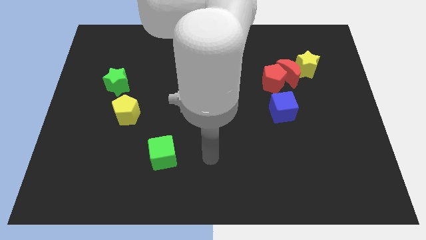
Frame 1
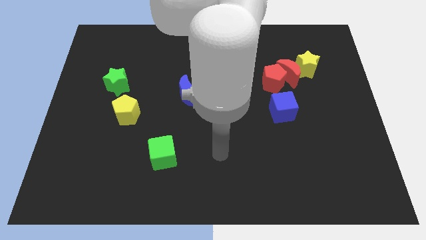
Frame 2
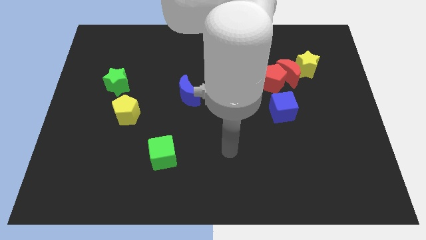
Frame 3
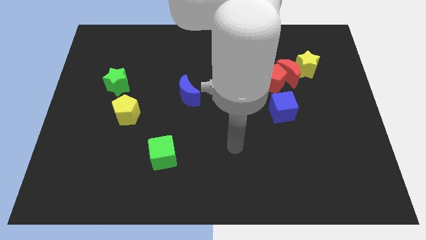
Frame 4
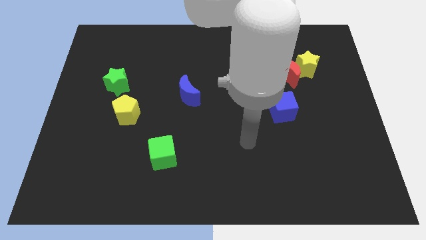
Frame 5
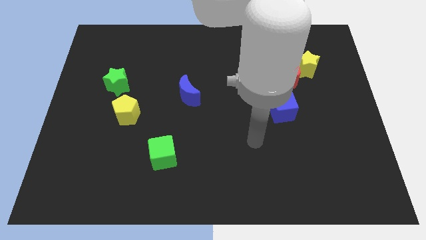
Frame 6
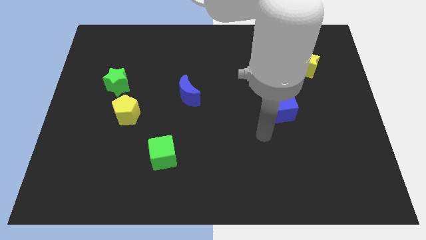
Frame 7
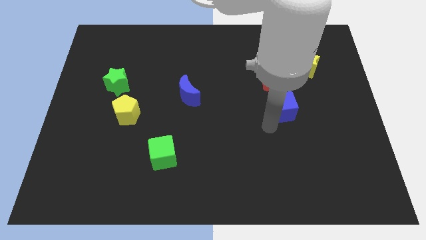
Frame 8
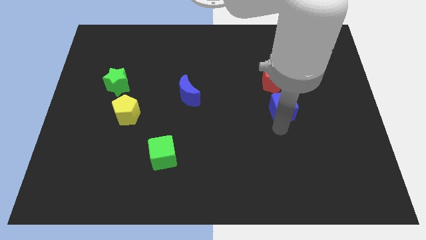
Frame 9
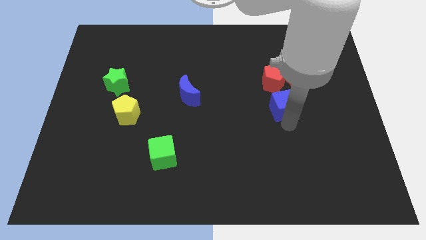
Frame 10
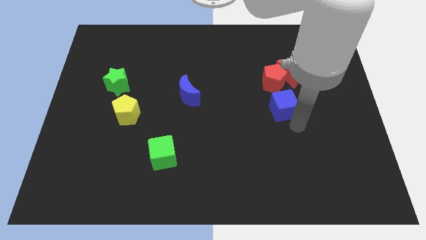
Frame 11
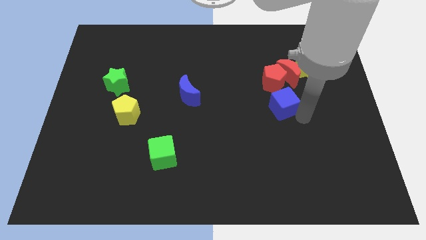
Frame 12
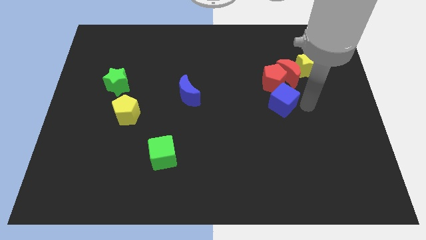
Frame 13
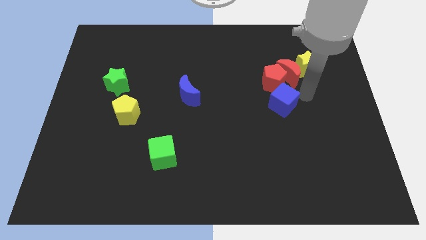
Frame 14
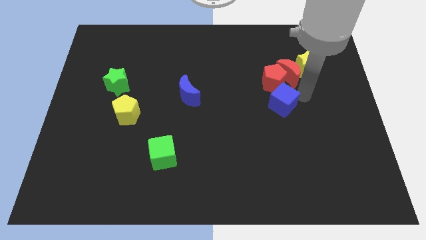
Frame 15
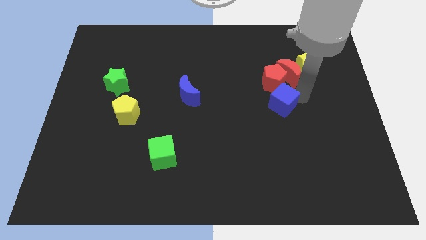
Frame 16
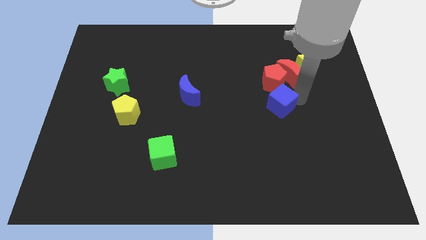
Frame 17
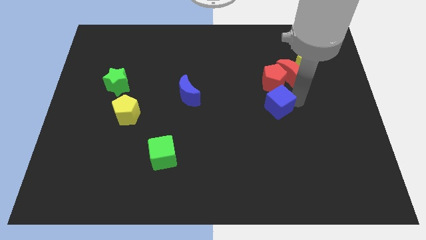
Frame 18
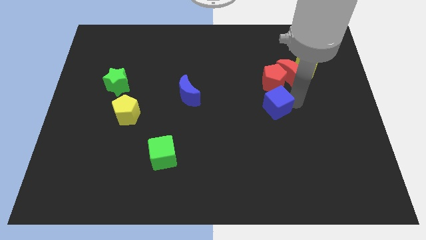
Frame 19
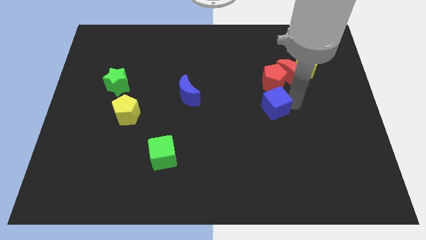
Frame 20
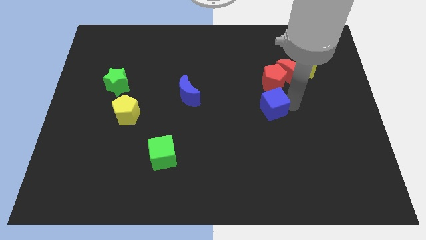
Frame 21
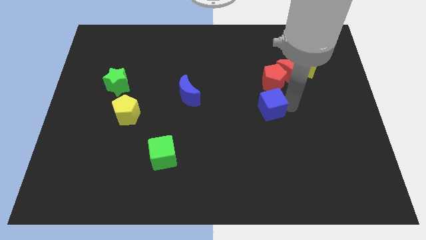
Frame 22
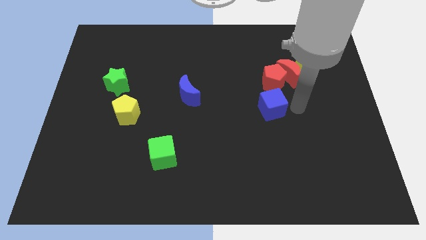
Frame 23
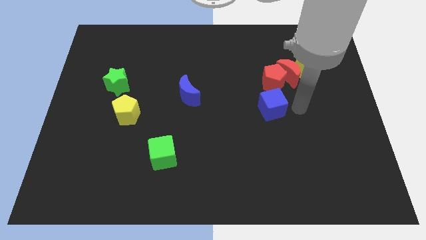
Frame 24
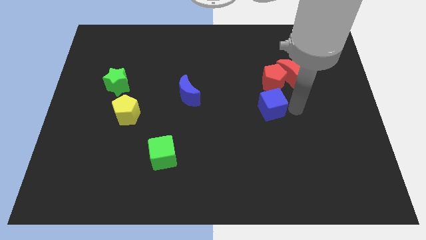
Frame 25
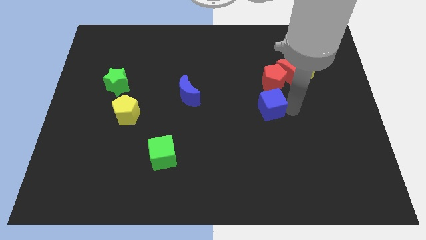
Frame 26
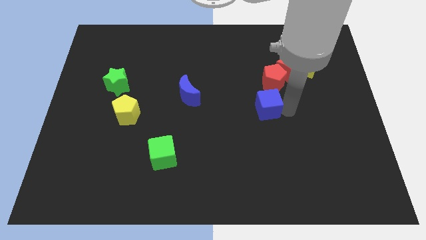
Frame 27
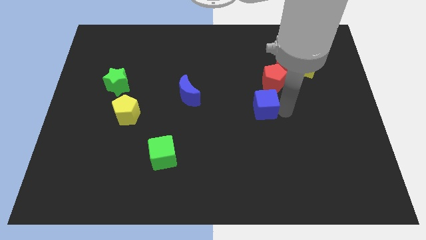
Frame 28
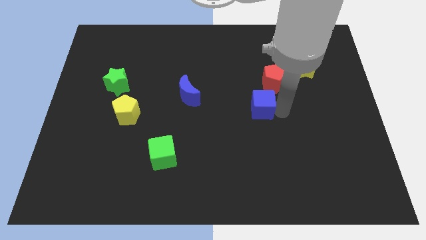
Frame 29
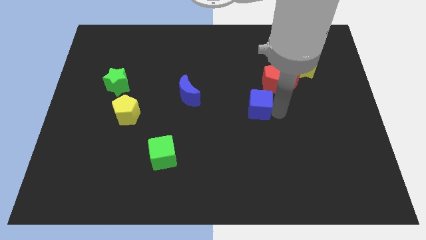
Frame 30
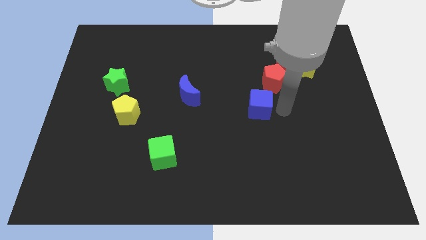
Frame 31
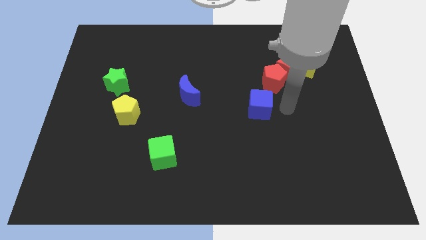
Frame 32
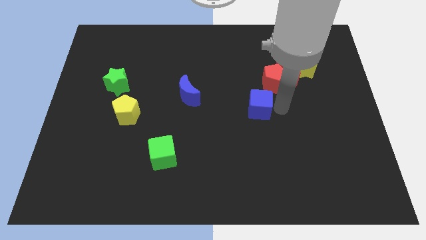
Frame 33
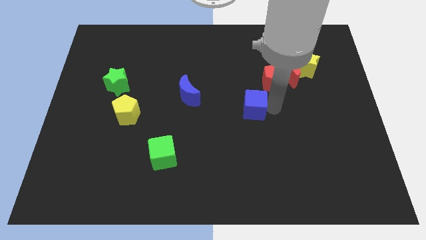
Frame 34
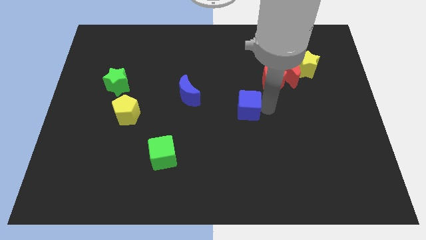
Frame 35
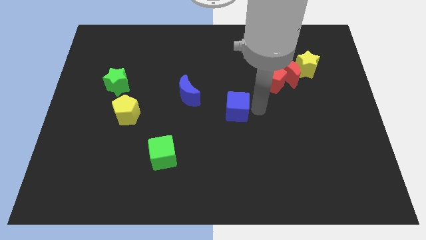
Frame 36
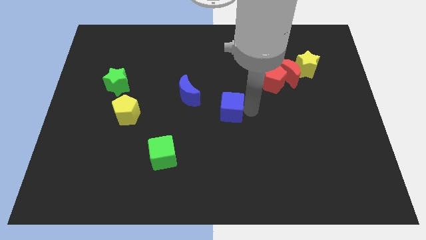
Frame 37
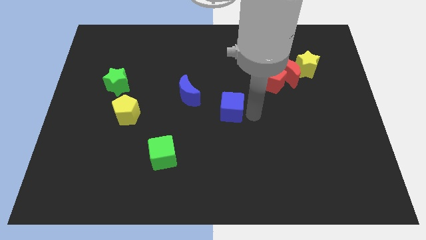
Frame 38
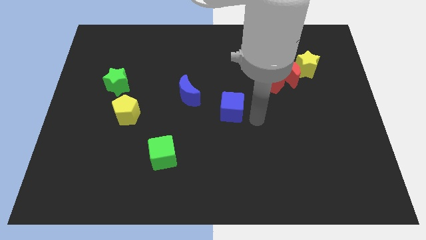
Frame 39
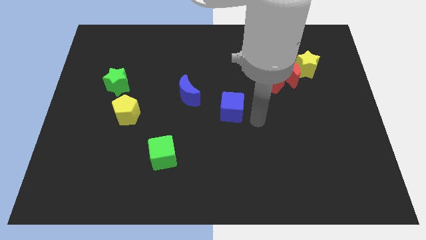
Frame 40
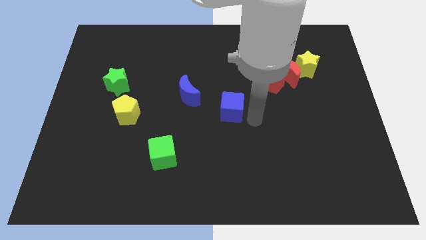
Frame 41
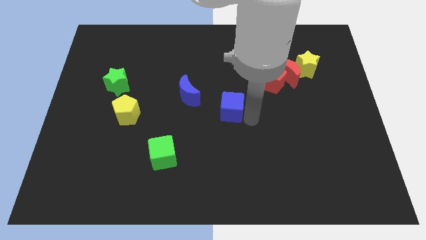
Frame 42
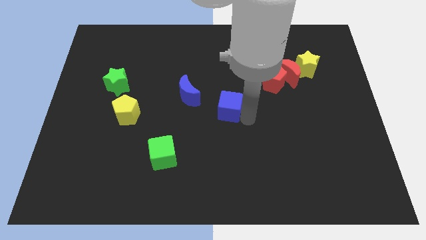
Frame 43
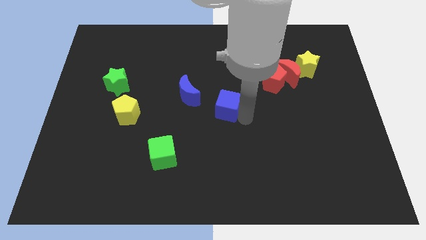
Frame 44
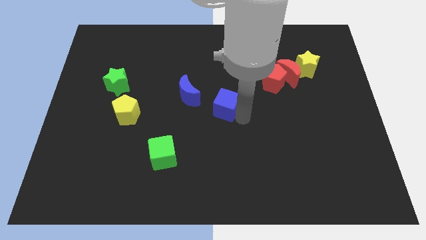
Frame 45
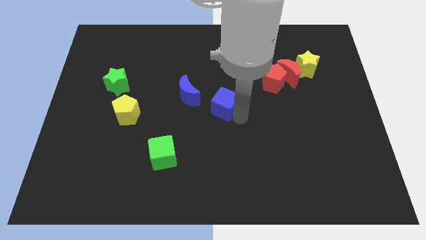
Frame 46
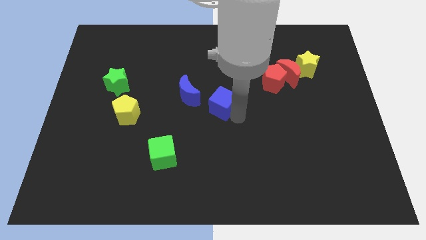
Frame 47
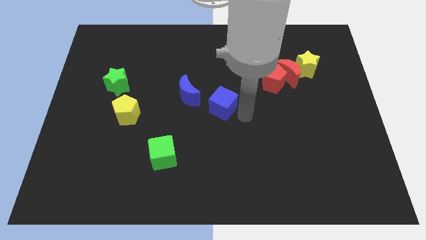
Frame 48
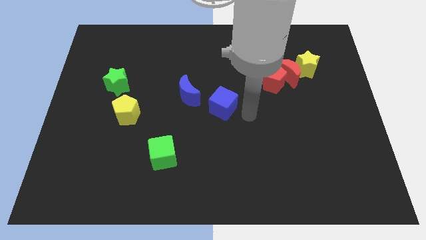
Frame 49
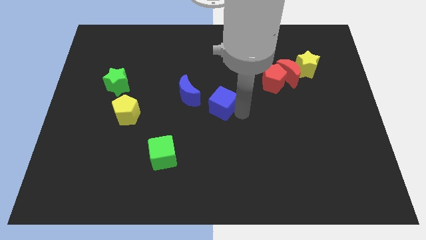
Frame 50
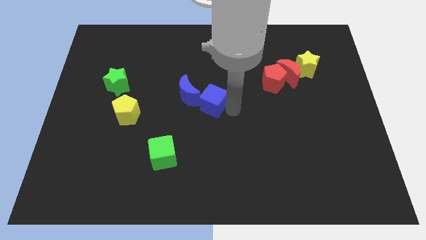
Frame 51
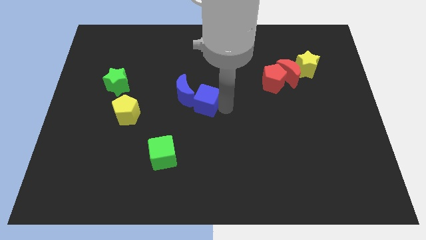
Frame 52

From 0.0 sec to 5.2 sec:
put the blue cube next to the blue moon

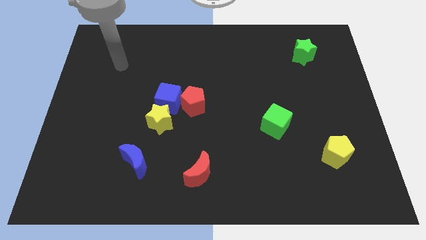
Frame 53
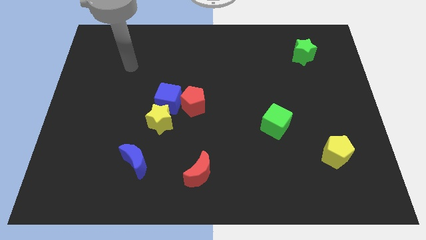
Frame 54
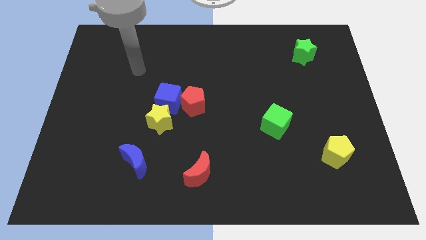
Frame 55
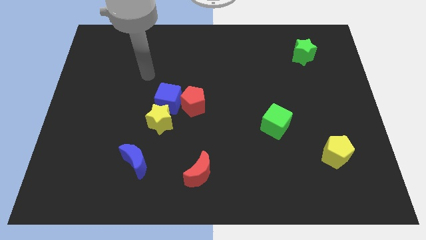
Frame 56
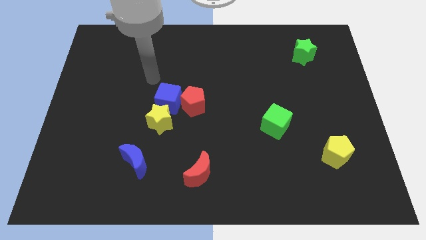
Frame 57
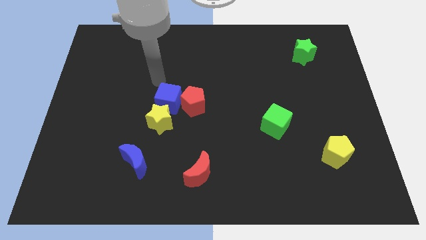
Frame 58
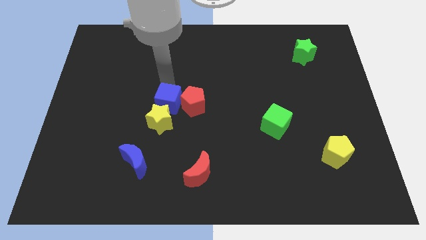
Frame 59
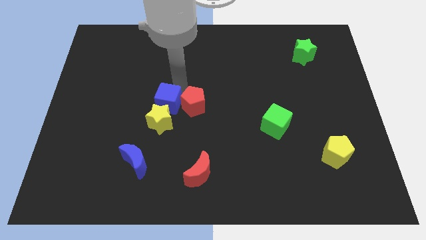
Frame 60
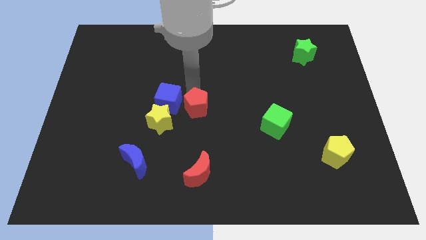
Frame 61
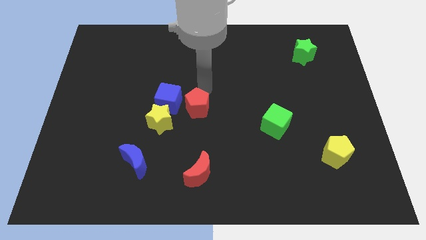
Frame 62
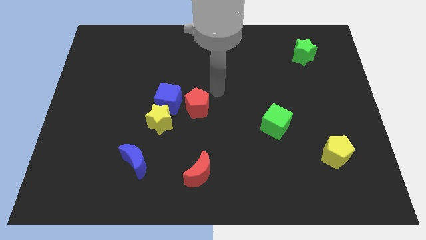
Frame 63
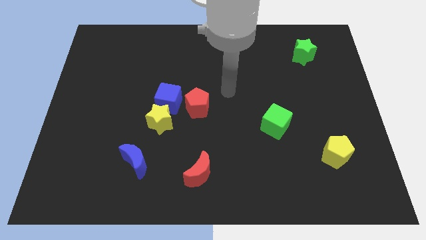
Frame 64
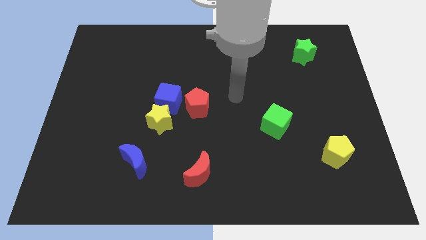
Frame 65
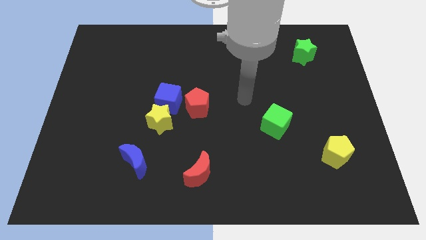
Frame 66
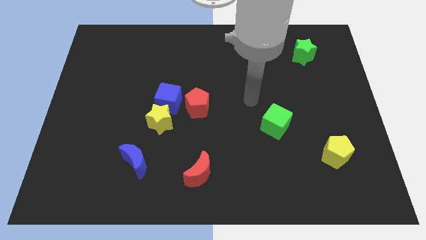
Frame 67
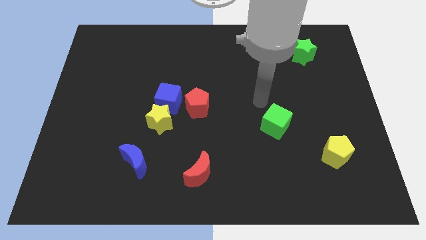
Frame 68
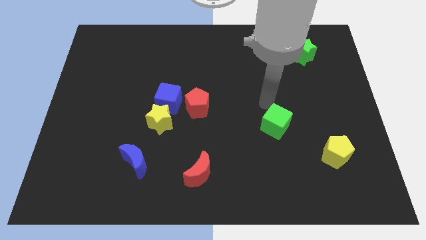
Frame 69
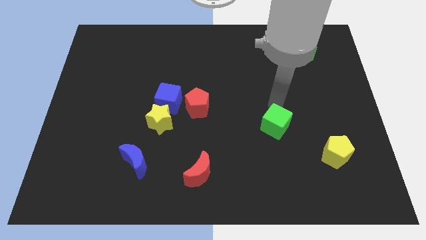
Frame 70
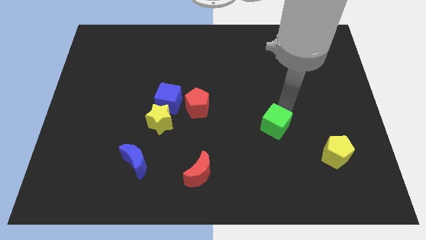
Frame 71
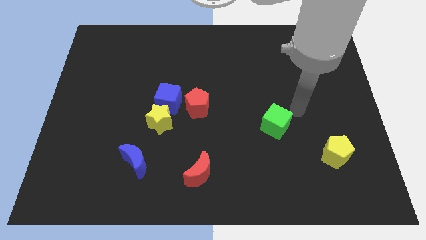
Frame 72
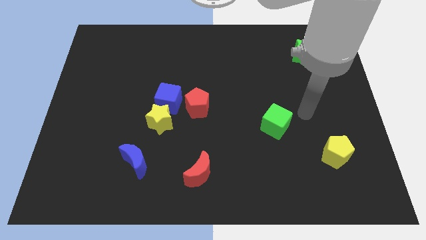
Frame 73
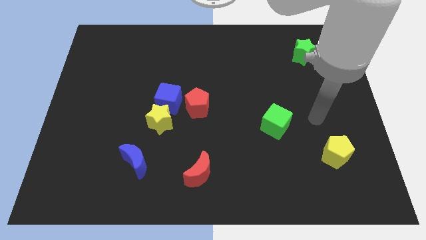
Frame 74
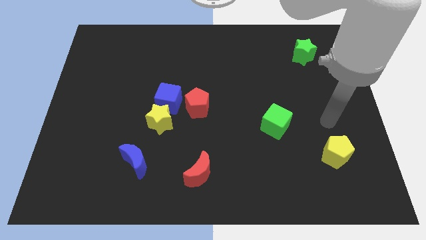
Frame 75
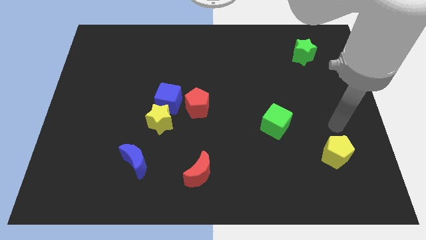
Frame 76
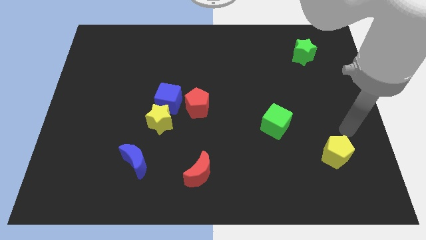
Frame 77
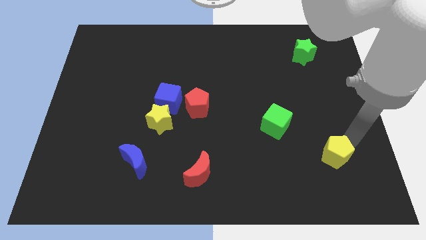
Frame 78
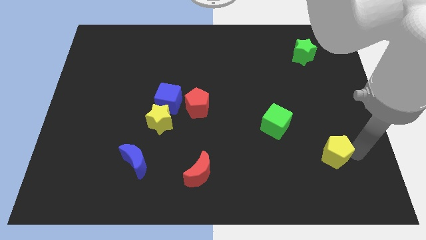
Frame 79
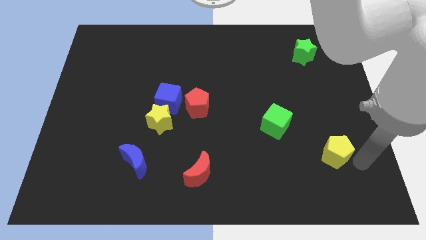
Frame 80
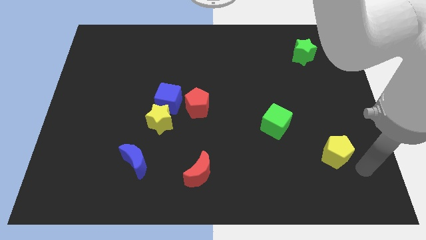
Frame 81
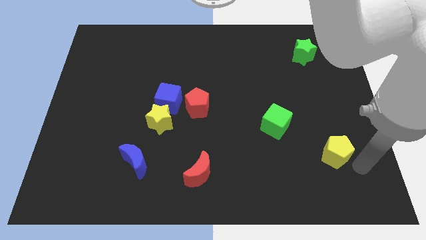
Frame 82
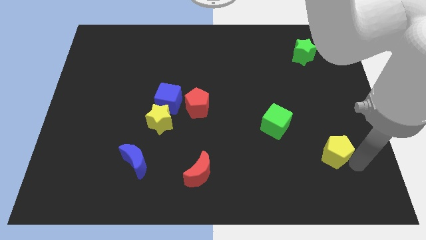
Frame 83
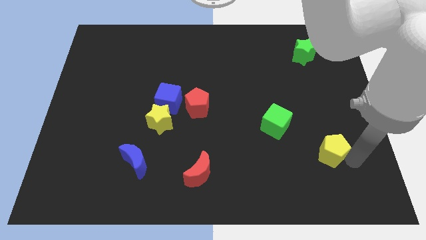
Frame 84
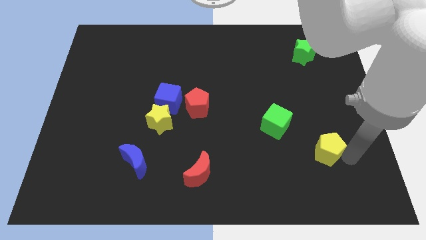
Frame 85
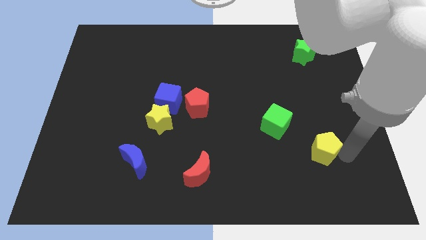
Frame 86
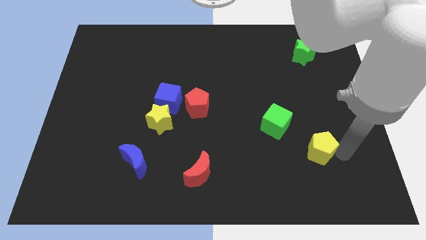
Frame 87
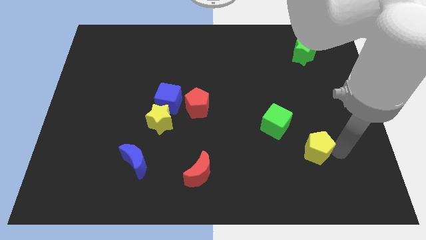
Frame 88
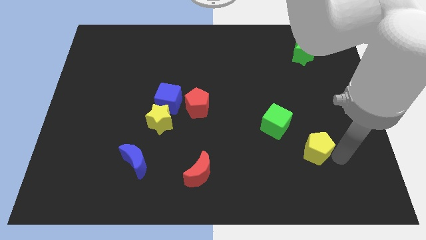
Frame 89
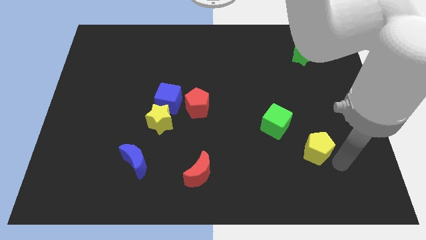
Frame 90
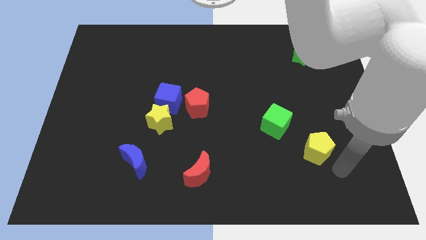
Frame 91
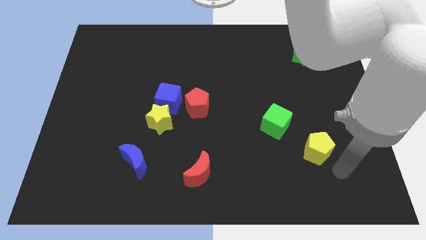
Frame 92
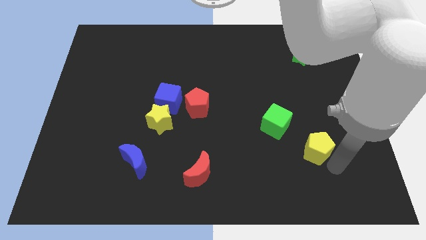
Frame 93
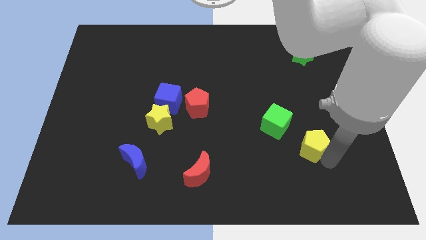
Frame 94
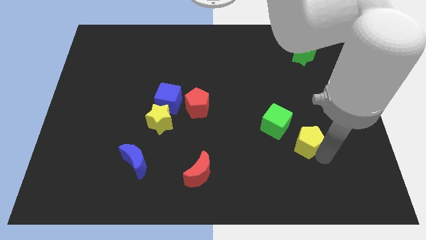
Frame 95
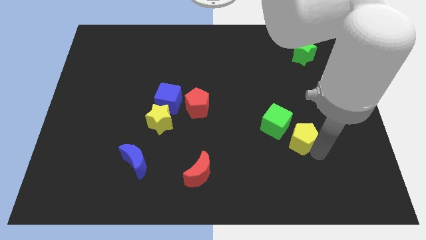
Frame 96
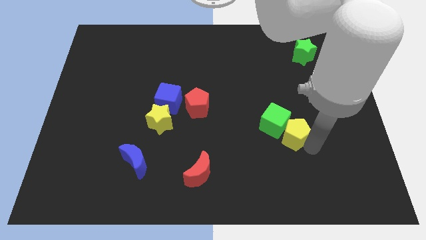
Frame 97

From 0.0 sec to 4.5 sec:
slide the yellow pentagon to the green cube
